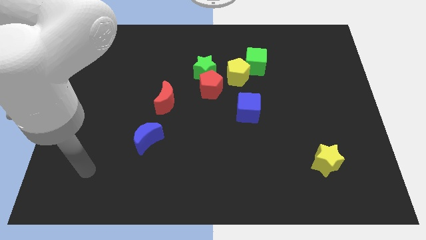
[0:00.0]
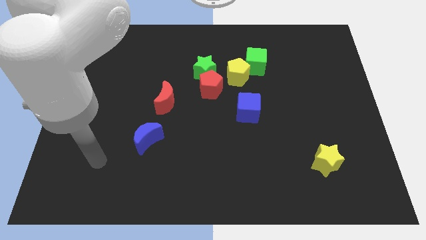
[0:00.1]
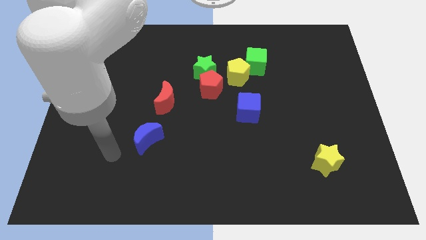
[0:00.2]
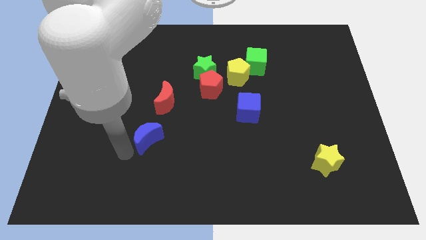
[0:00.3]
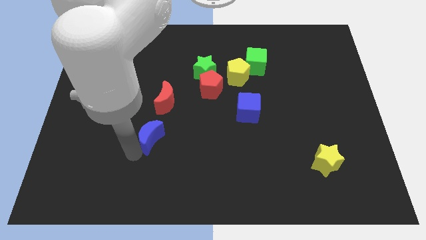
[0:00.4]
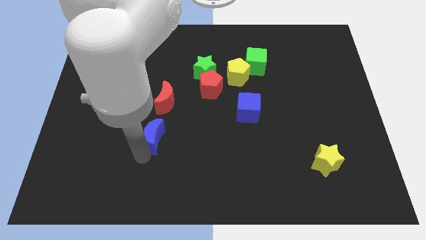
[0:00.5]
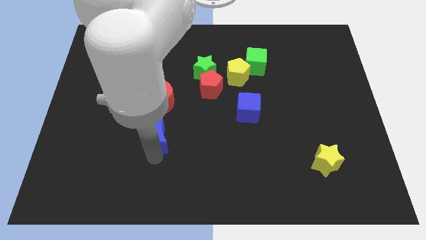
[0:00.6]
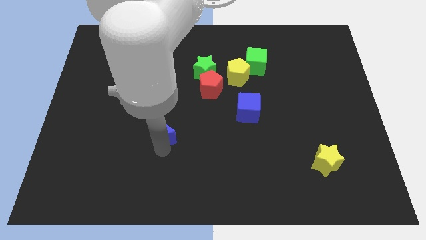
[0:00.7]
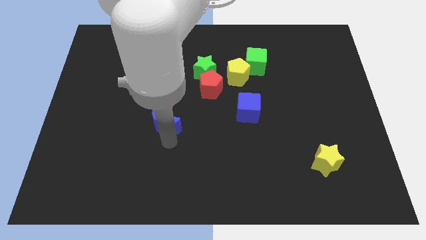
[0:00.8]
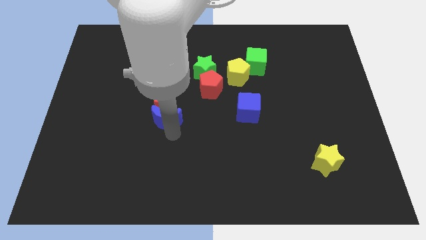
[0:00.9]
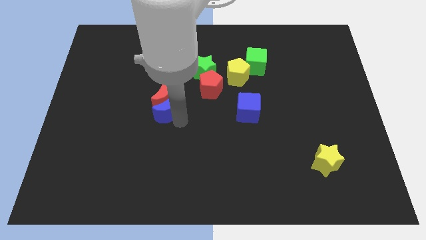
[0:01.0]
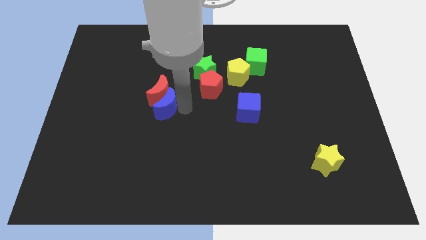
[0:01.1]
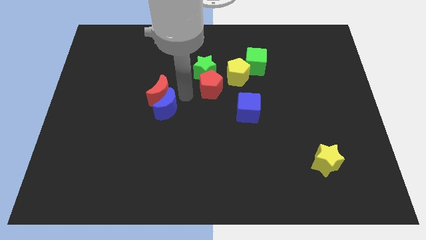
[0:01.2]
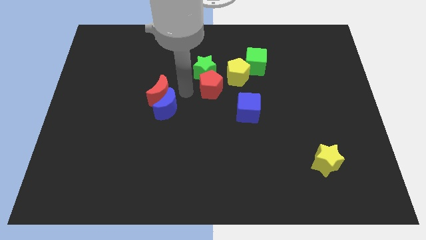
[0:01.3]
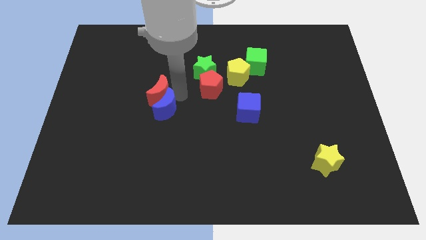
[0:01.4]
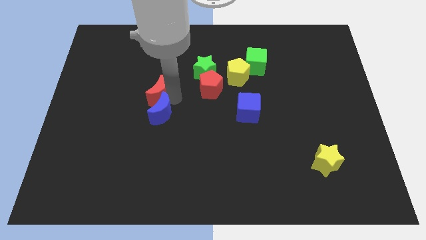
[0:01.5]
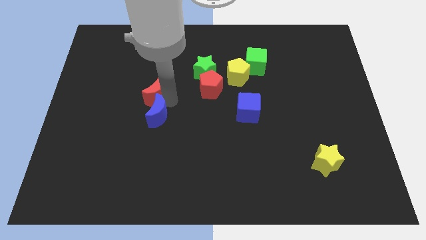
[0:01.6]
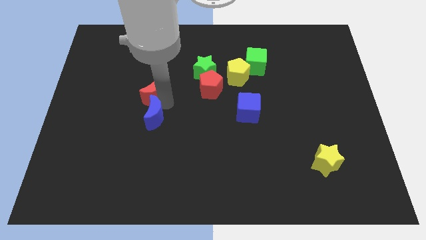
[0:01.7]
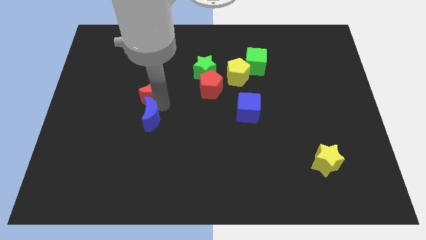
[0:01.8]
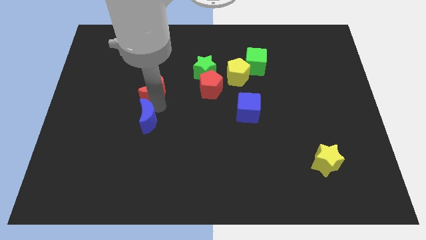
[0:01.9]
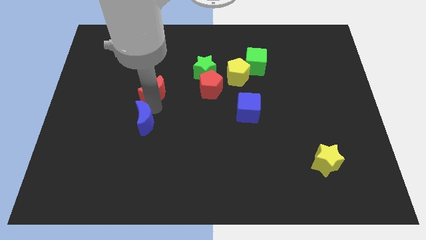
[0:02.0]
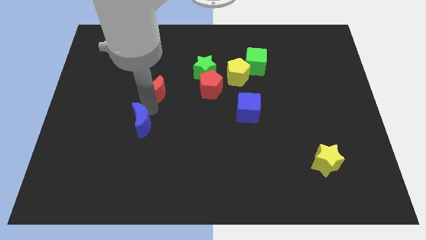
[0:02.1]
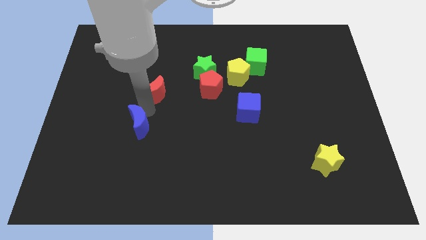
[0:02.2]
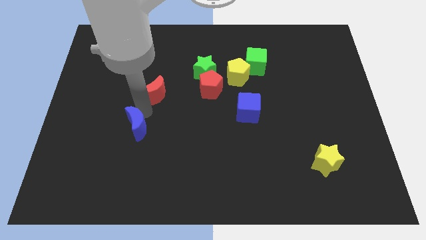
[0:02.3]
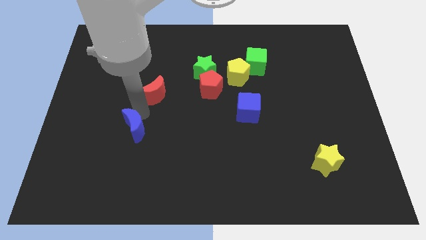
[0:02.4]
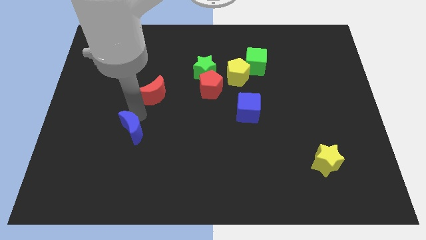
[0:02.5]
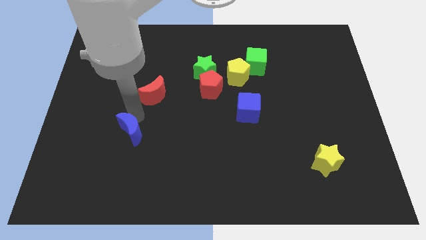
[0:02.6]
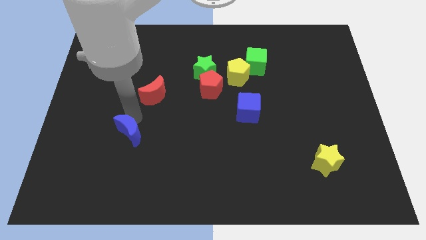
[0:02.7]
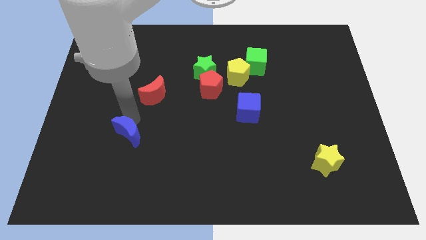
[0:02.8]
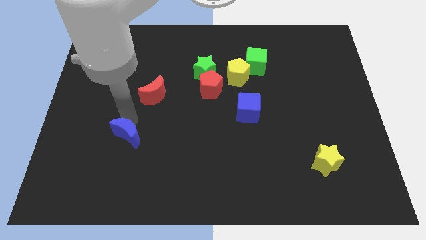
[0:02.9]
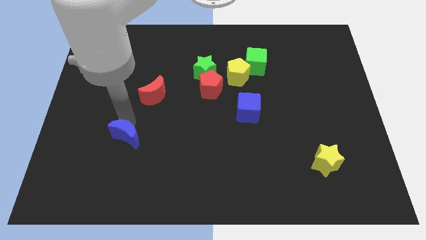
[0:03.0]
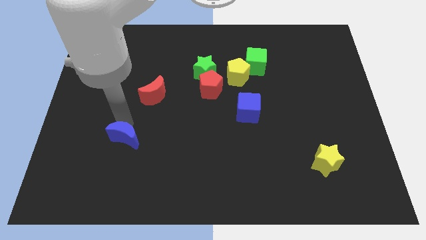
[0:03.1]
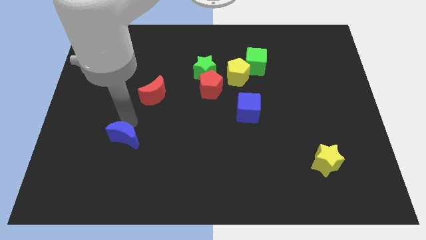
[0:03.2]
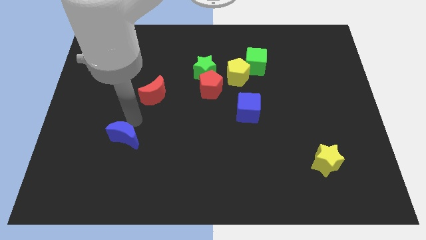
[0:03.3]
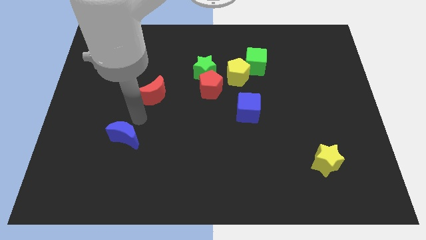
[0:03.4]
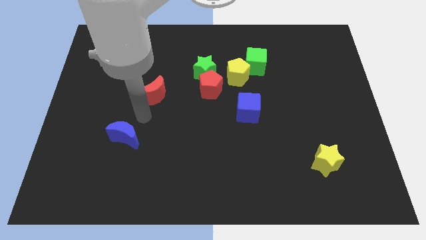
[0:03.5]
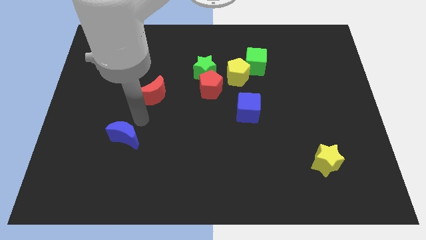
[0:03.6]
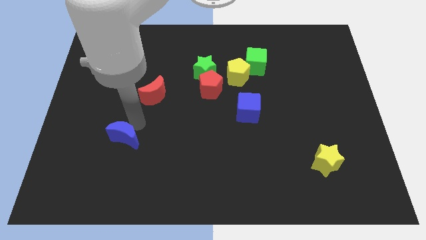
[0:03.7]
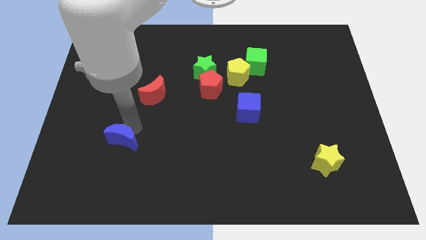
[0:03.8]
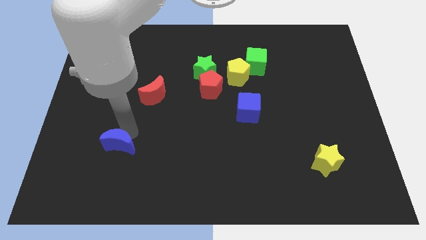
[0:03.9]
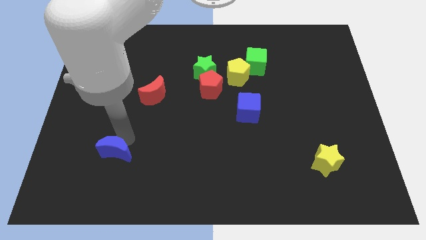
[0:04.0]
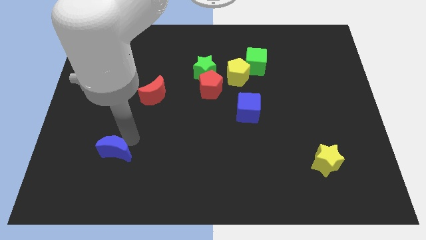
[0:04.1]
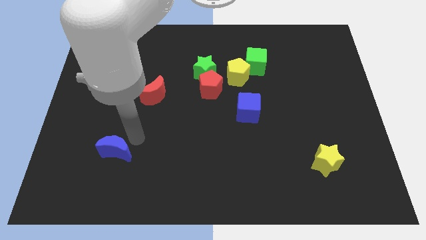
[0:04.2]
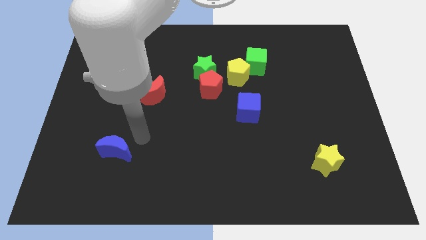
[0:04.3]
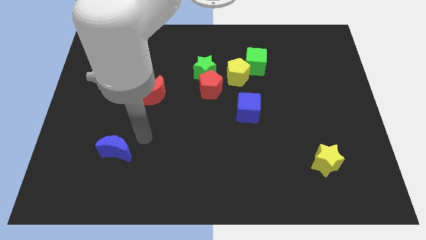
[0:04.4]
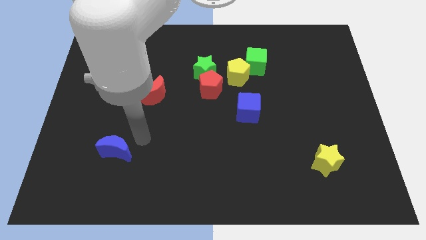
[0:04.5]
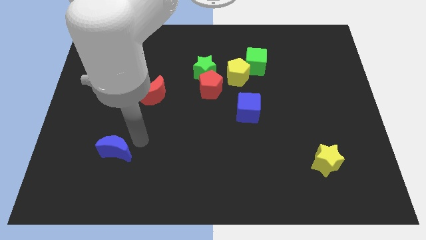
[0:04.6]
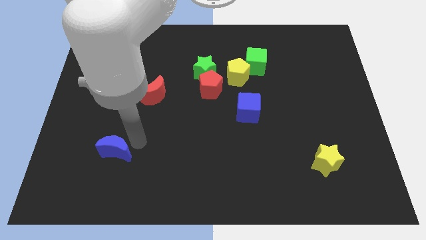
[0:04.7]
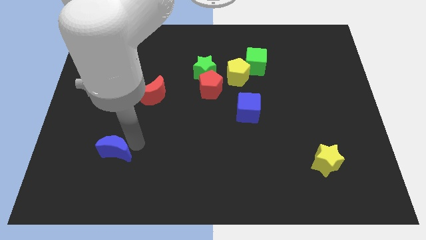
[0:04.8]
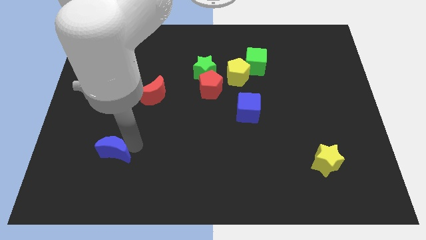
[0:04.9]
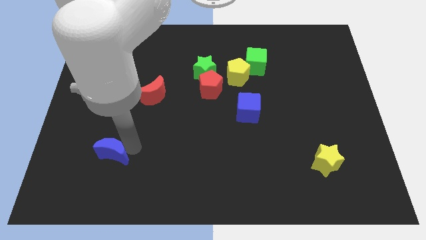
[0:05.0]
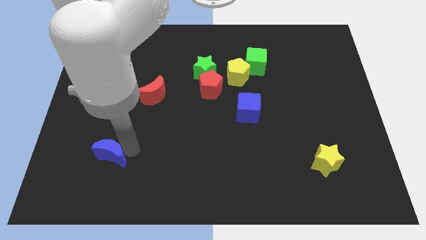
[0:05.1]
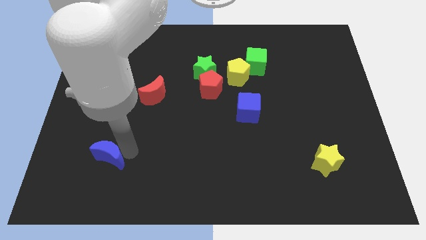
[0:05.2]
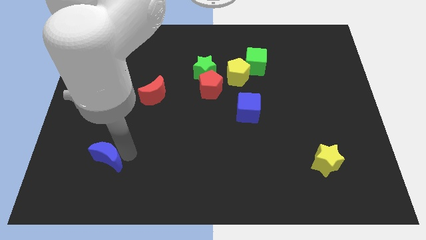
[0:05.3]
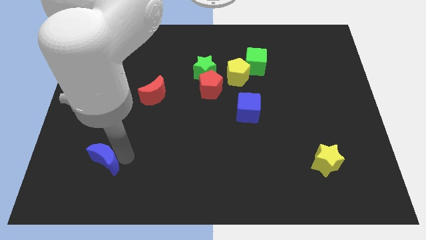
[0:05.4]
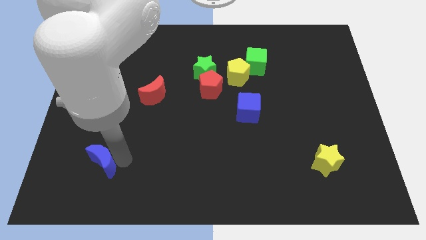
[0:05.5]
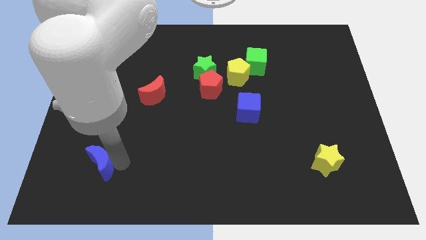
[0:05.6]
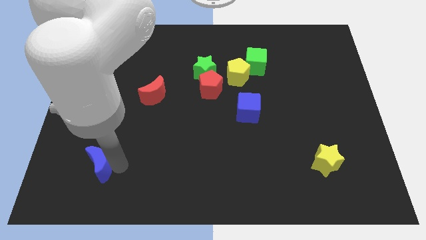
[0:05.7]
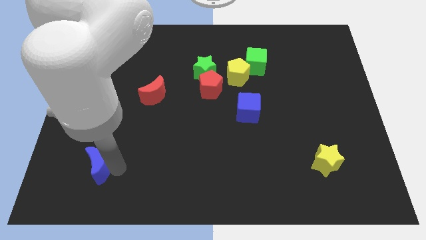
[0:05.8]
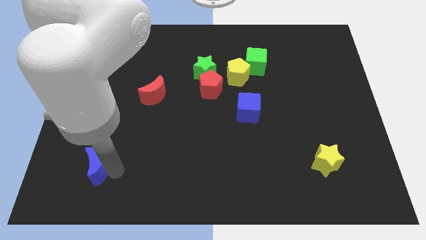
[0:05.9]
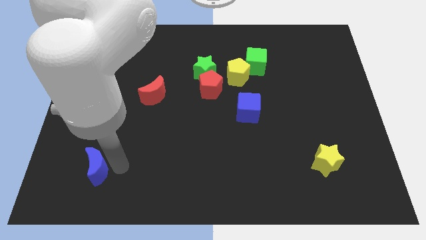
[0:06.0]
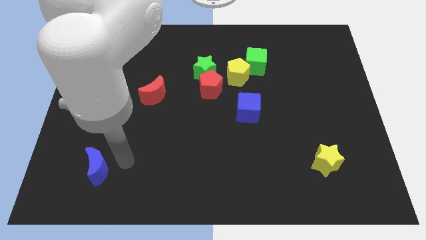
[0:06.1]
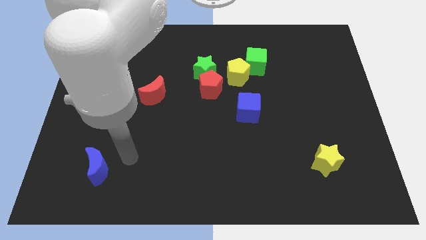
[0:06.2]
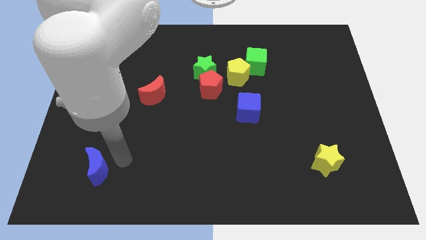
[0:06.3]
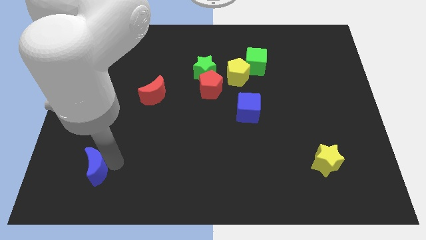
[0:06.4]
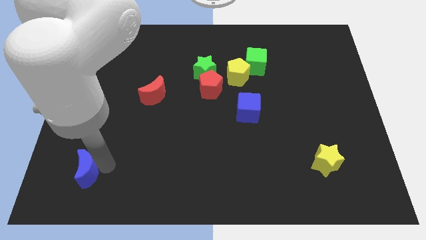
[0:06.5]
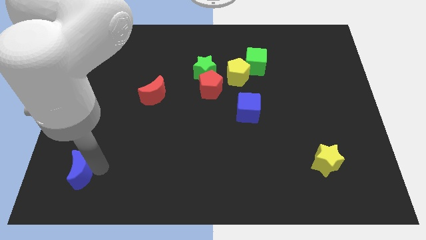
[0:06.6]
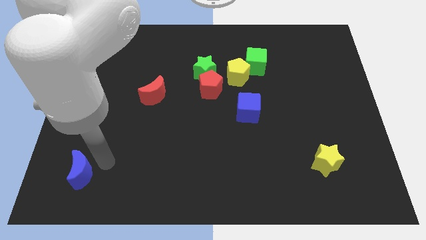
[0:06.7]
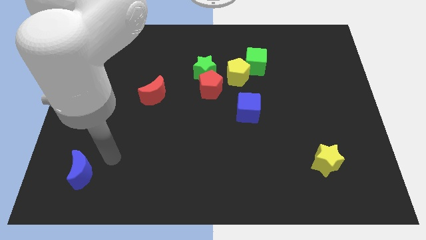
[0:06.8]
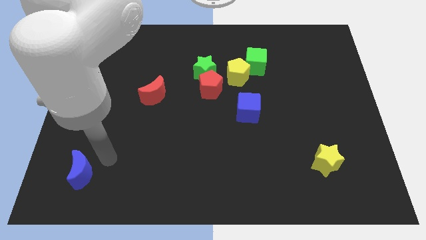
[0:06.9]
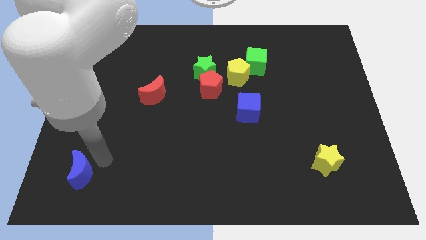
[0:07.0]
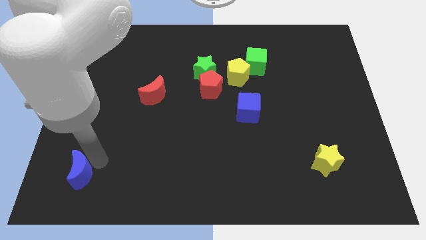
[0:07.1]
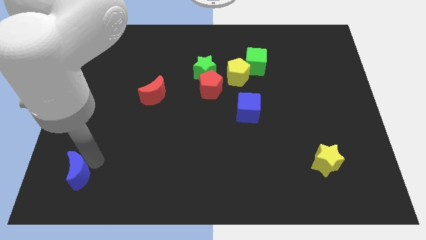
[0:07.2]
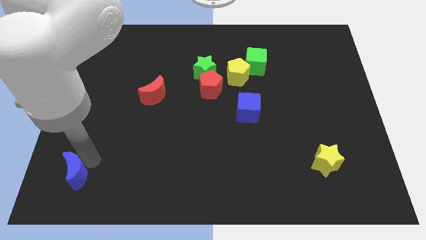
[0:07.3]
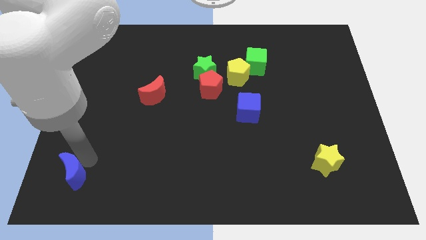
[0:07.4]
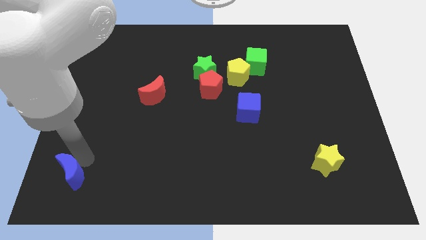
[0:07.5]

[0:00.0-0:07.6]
push the blue moon to the lower left corner

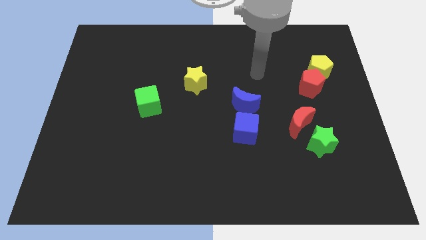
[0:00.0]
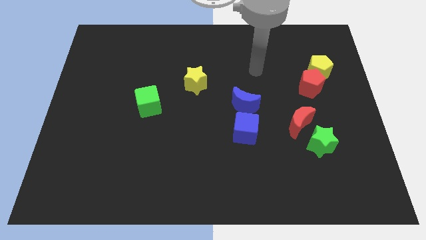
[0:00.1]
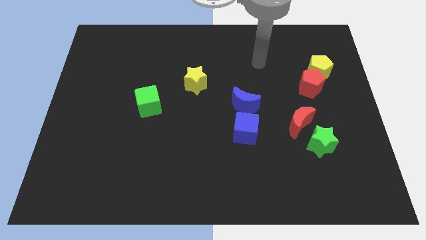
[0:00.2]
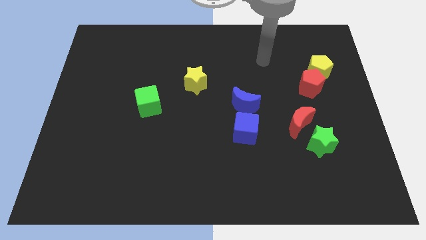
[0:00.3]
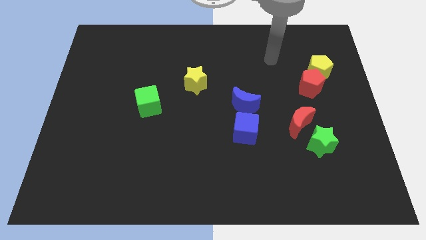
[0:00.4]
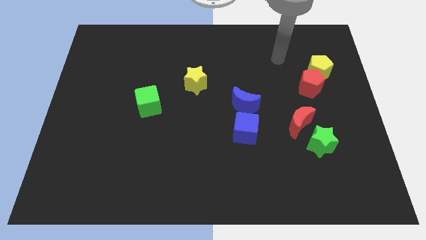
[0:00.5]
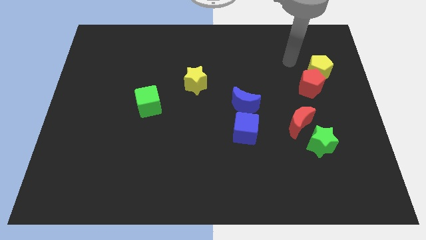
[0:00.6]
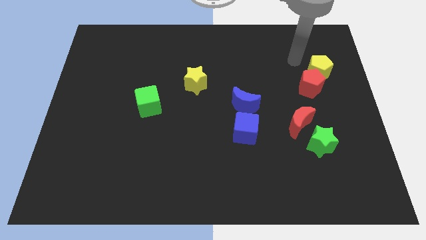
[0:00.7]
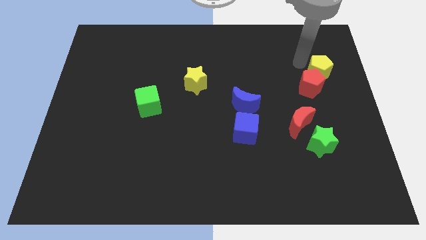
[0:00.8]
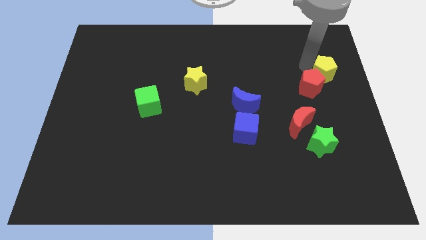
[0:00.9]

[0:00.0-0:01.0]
put the yellow pentagon to the right side
